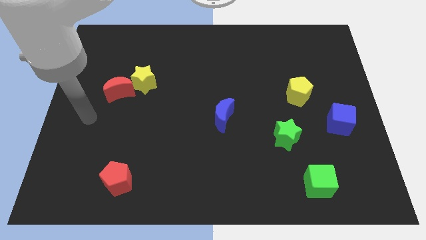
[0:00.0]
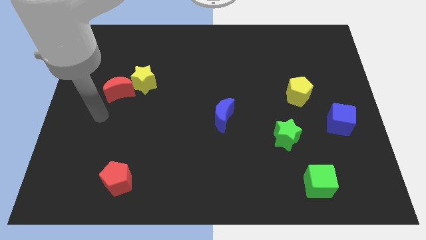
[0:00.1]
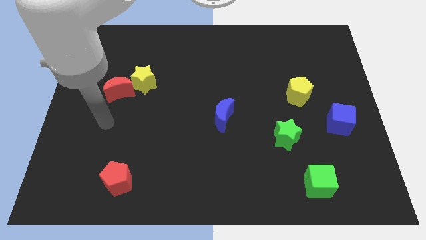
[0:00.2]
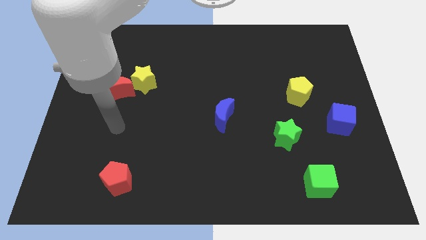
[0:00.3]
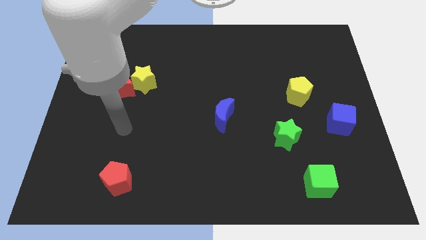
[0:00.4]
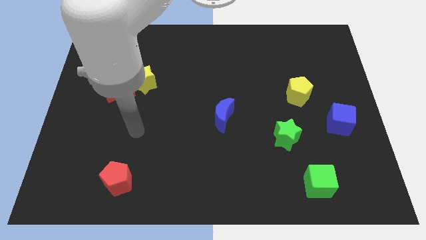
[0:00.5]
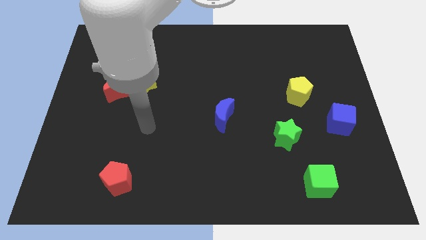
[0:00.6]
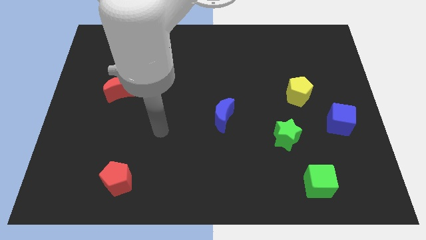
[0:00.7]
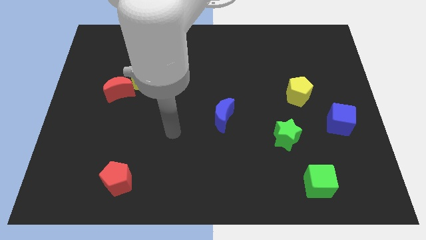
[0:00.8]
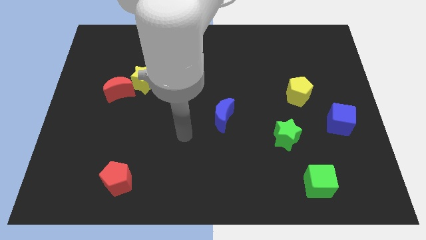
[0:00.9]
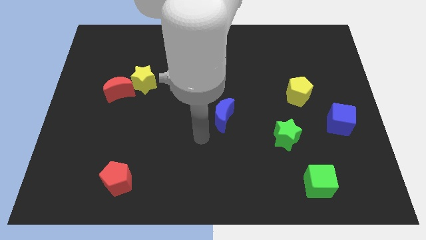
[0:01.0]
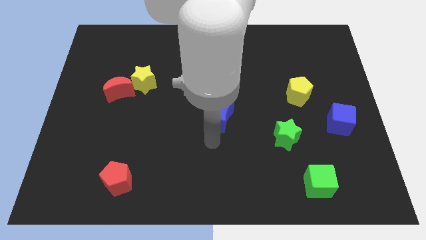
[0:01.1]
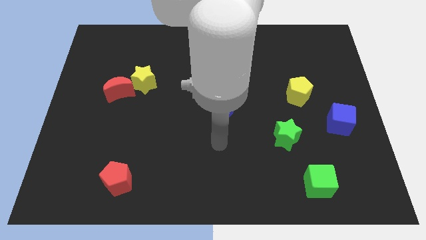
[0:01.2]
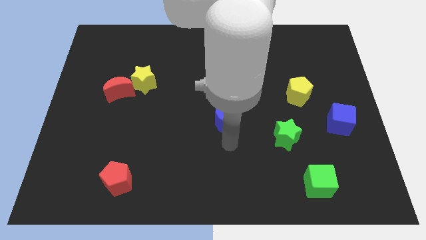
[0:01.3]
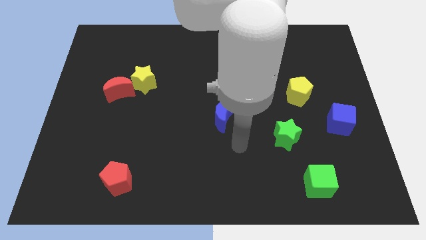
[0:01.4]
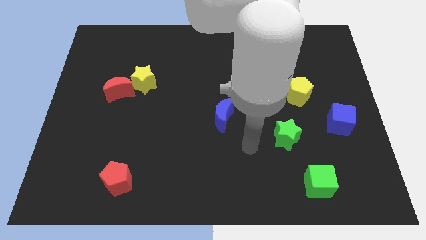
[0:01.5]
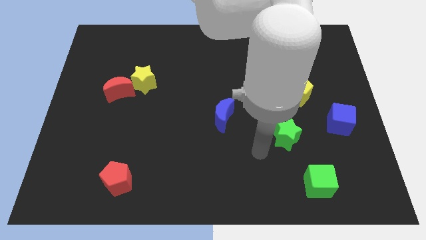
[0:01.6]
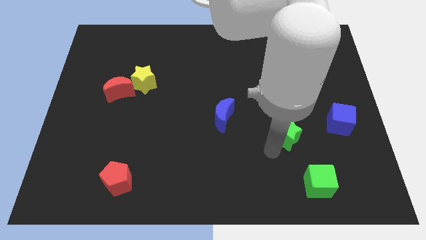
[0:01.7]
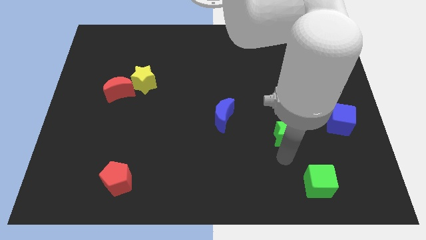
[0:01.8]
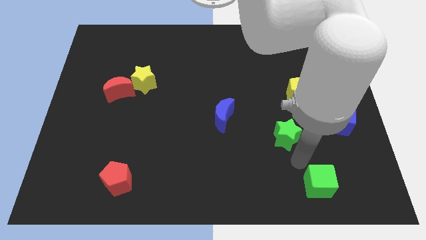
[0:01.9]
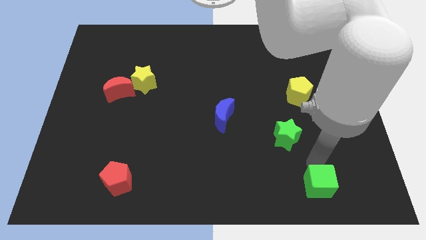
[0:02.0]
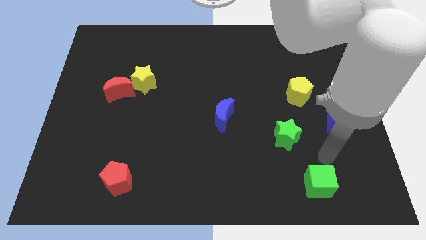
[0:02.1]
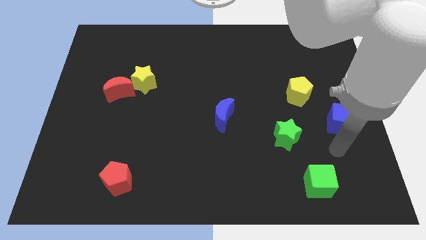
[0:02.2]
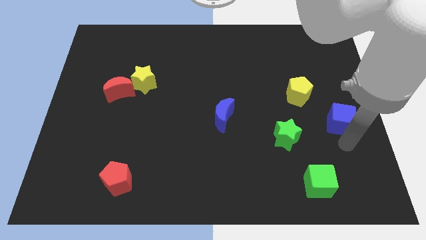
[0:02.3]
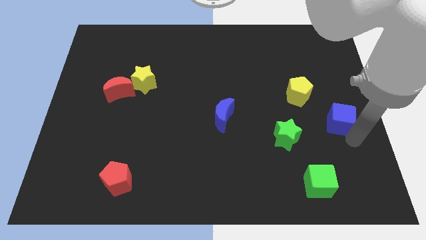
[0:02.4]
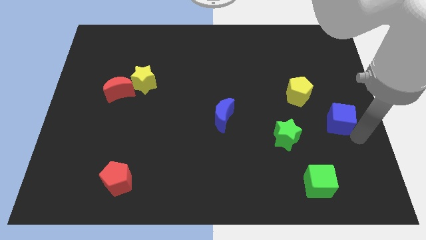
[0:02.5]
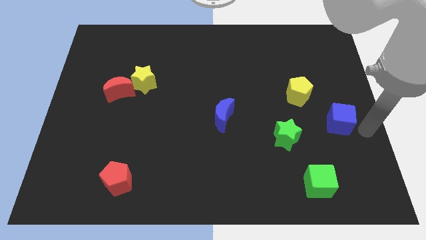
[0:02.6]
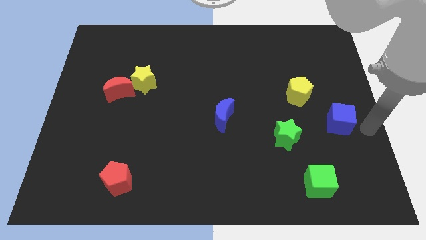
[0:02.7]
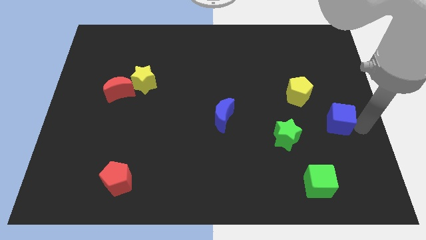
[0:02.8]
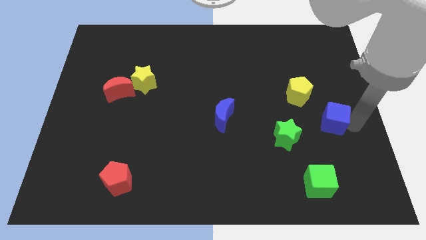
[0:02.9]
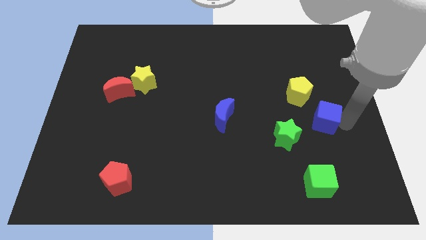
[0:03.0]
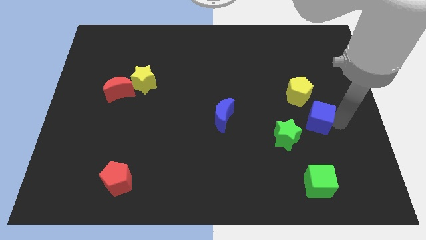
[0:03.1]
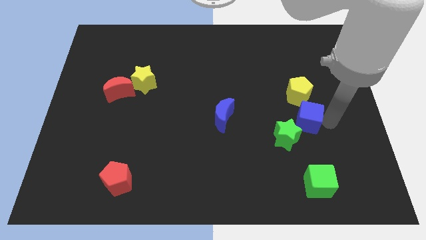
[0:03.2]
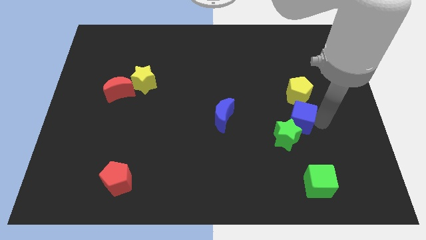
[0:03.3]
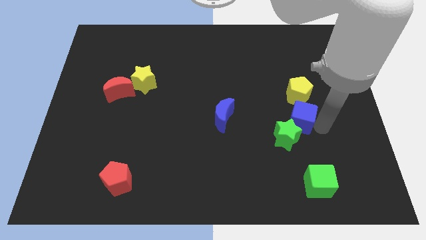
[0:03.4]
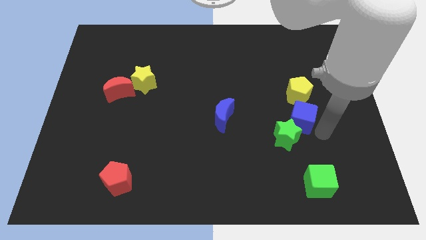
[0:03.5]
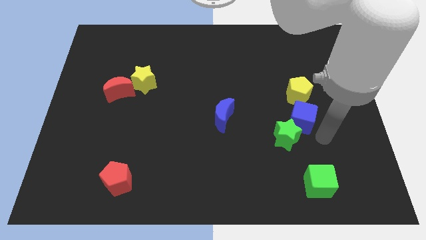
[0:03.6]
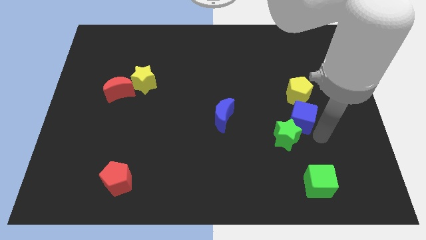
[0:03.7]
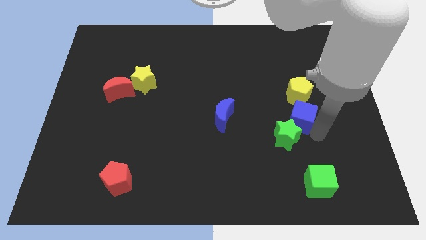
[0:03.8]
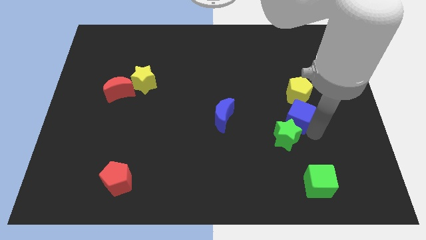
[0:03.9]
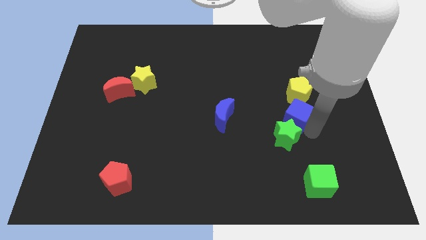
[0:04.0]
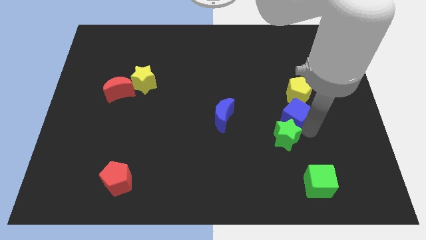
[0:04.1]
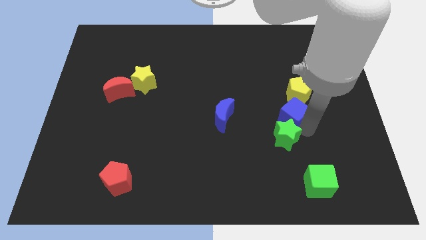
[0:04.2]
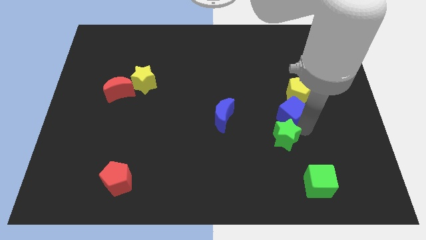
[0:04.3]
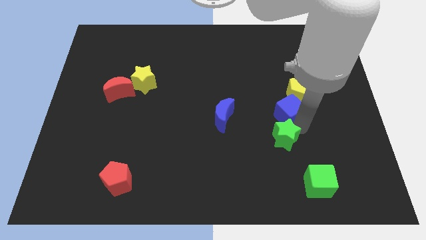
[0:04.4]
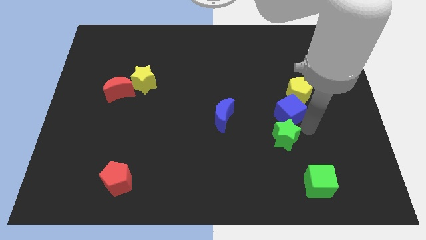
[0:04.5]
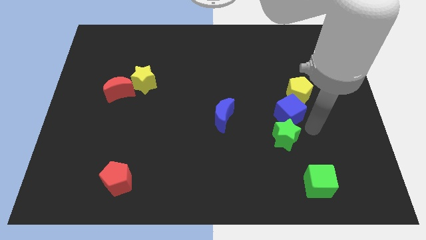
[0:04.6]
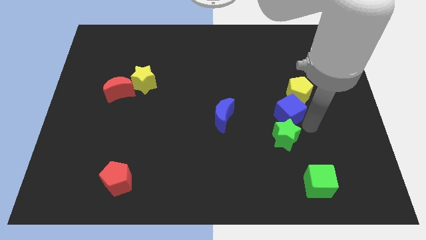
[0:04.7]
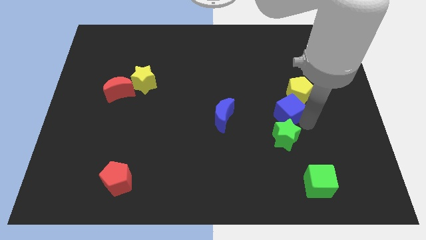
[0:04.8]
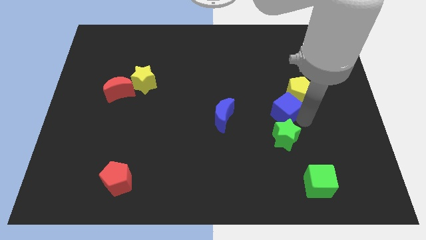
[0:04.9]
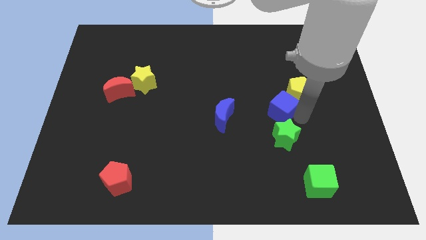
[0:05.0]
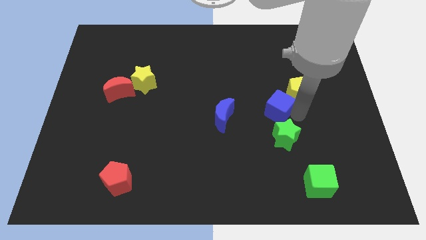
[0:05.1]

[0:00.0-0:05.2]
move the blue cube just left of the yellow pentagon

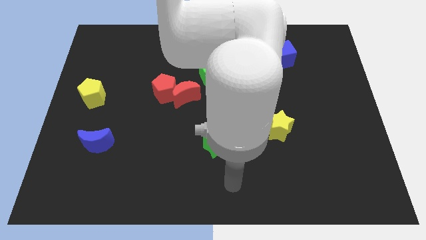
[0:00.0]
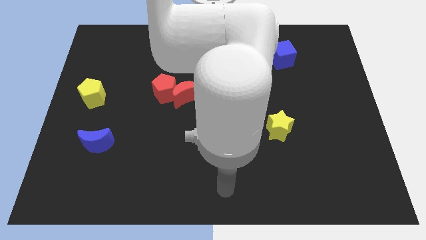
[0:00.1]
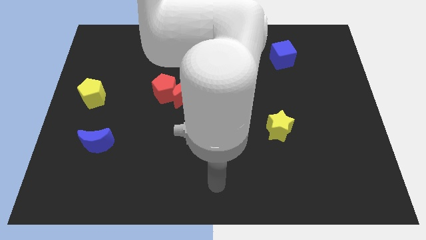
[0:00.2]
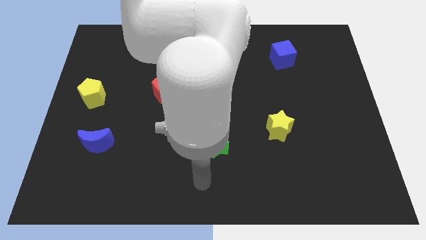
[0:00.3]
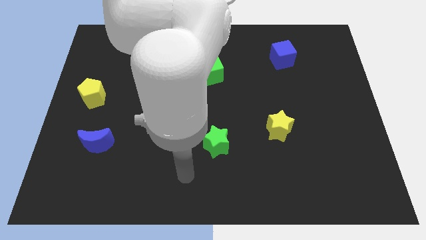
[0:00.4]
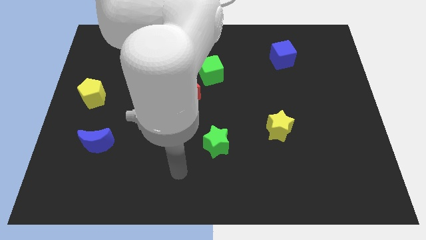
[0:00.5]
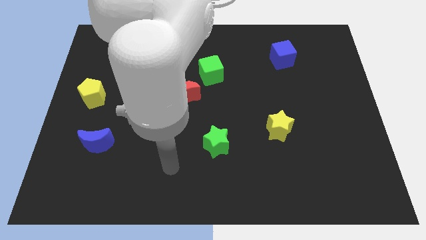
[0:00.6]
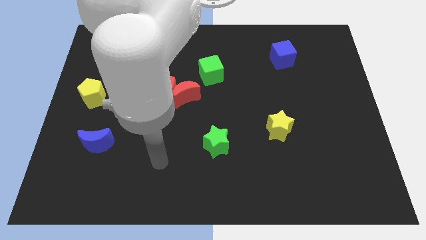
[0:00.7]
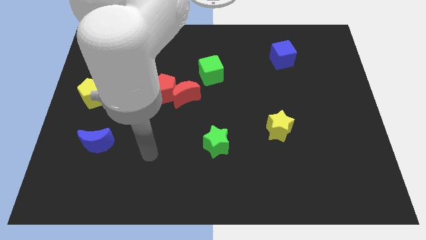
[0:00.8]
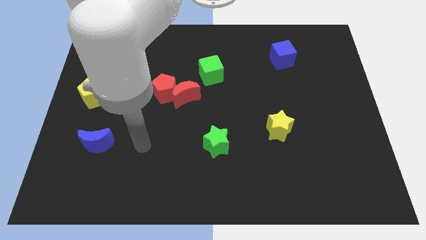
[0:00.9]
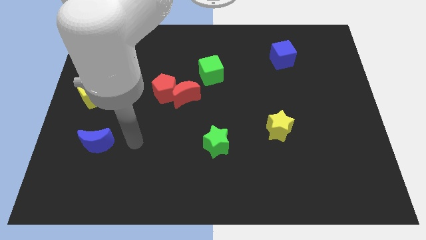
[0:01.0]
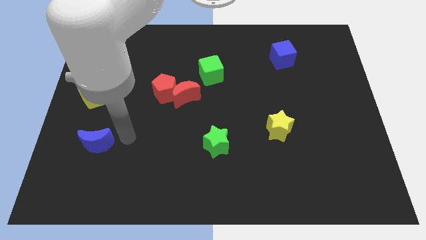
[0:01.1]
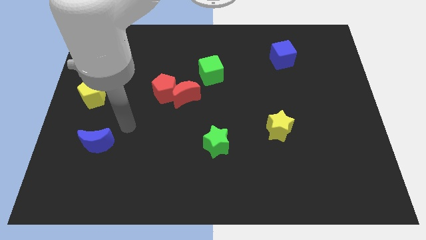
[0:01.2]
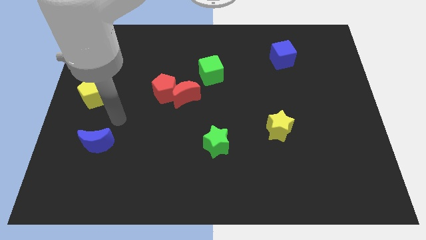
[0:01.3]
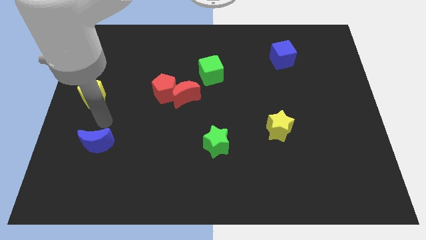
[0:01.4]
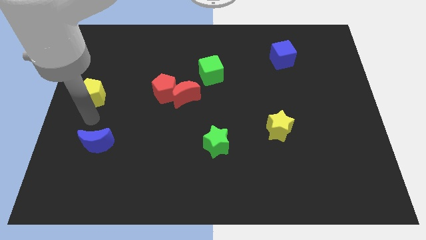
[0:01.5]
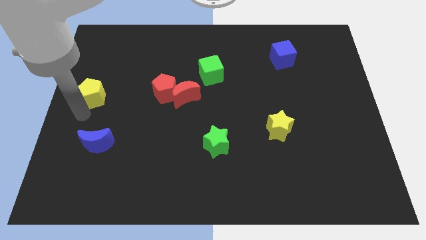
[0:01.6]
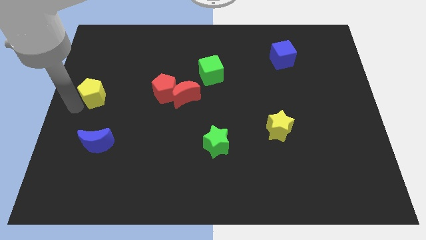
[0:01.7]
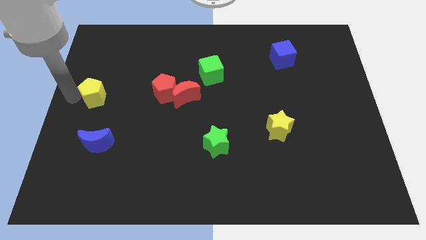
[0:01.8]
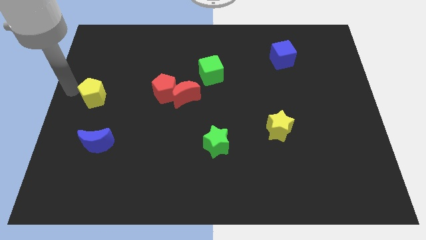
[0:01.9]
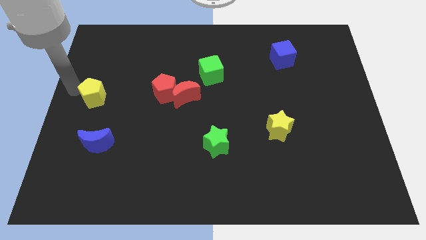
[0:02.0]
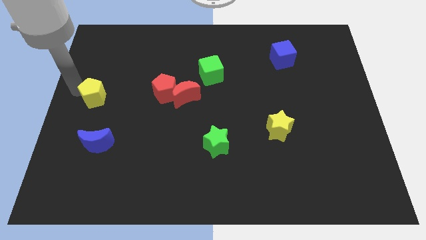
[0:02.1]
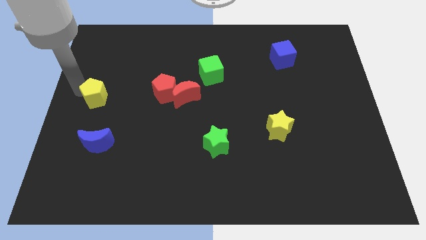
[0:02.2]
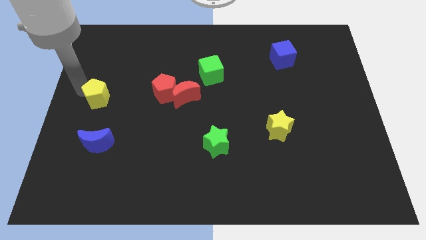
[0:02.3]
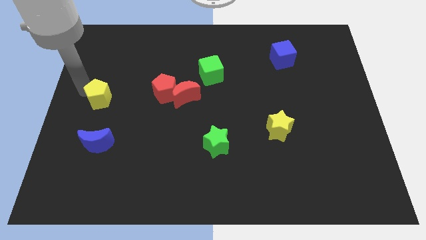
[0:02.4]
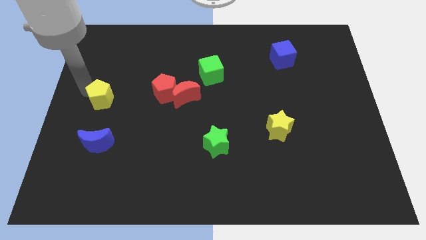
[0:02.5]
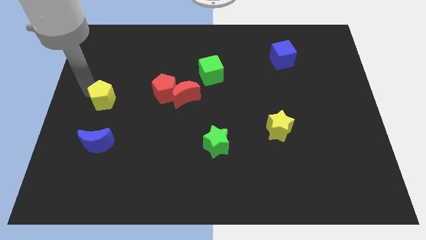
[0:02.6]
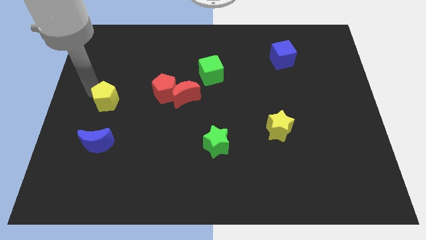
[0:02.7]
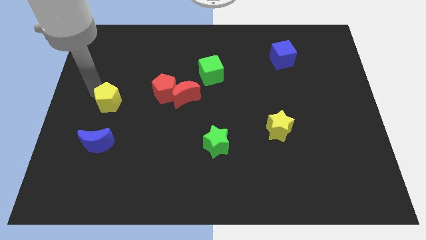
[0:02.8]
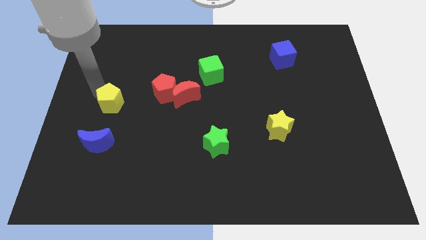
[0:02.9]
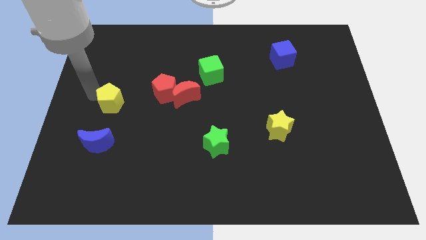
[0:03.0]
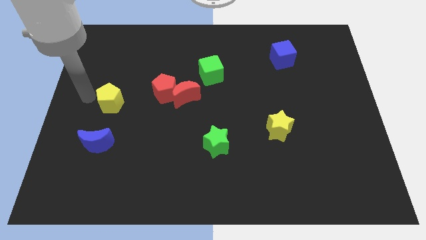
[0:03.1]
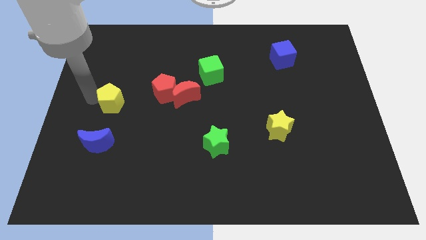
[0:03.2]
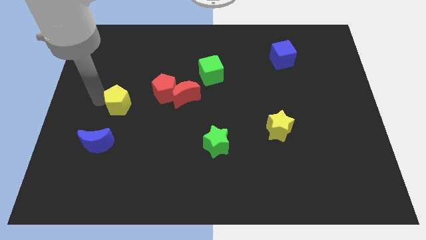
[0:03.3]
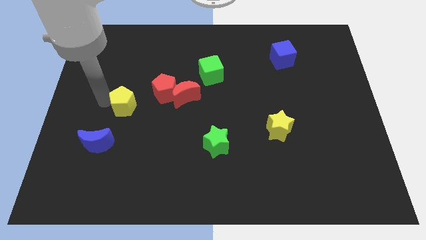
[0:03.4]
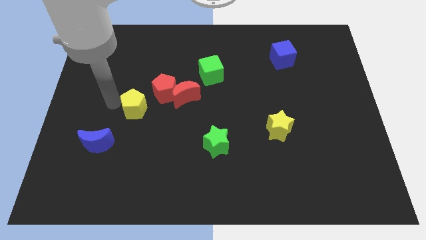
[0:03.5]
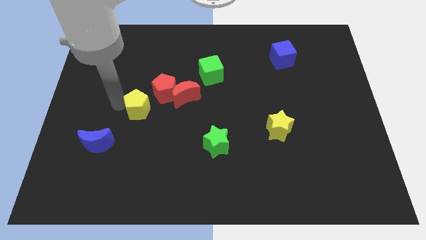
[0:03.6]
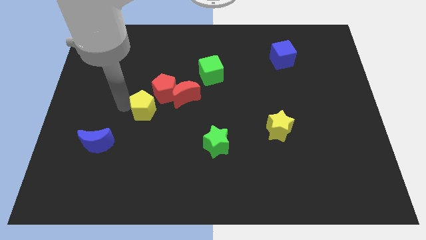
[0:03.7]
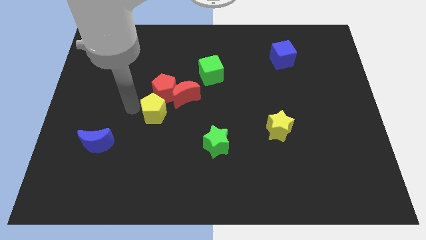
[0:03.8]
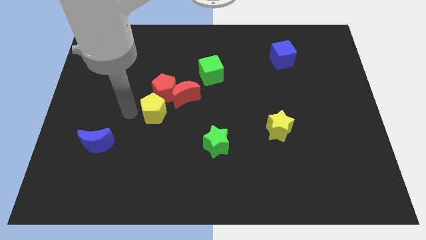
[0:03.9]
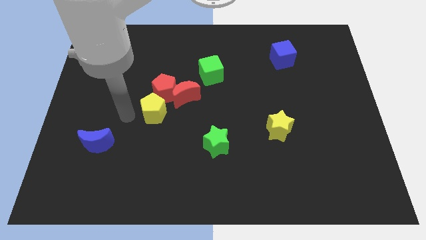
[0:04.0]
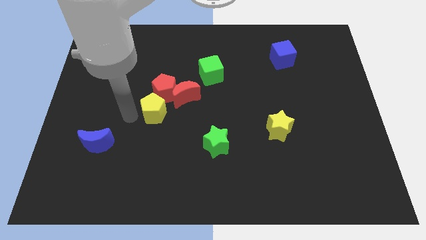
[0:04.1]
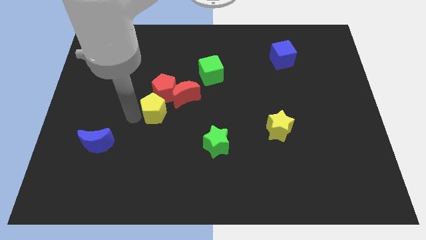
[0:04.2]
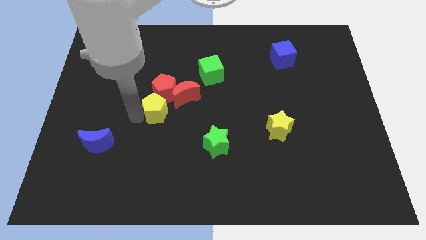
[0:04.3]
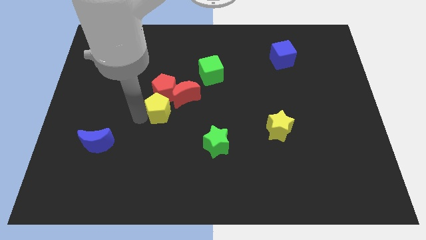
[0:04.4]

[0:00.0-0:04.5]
push the yellow pentagon diagonally down and to the right of the red pentagon
